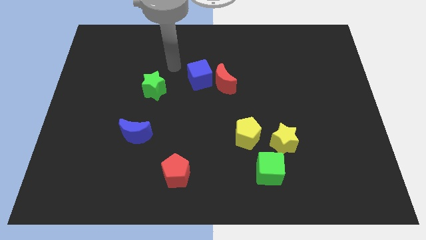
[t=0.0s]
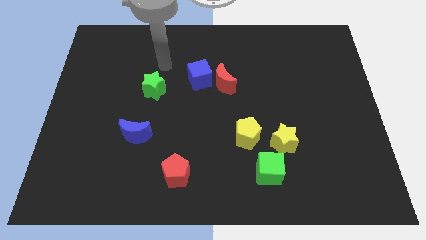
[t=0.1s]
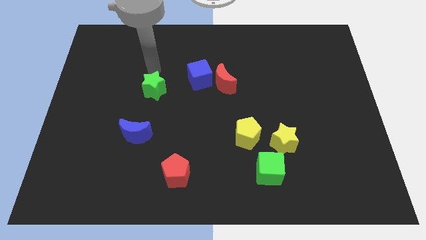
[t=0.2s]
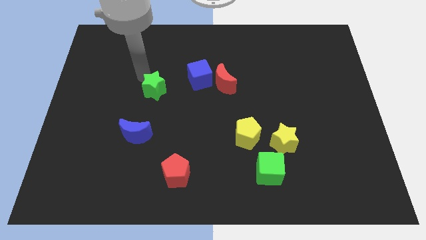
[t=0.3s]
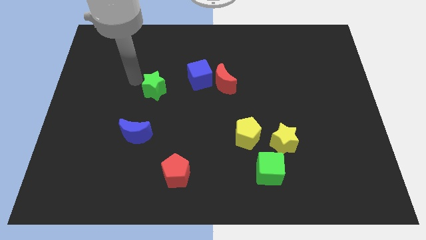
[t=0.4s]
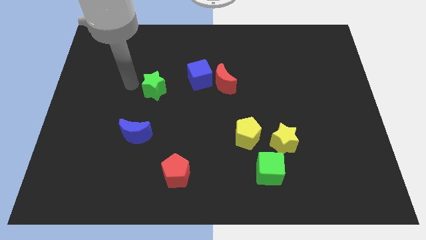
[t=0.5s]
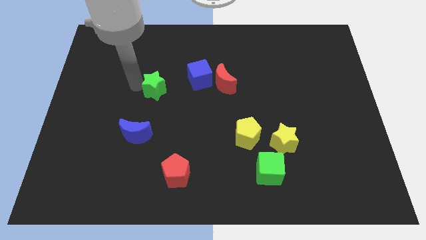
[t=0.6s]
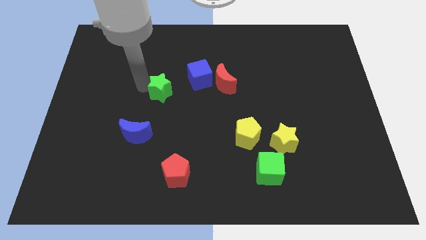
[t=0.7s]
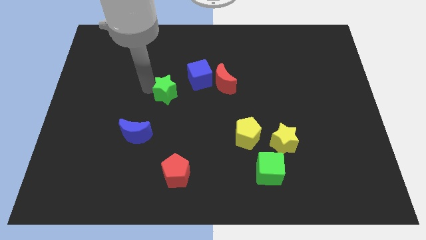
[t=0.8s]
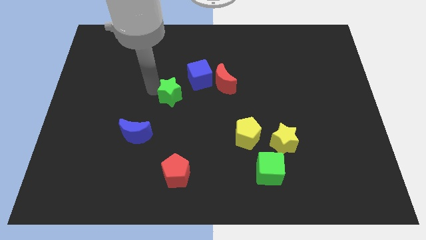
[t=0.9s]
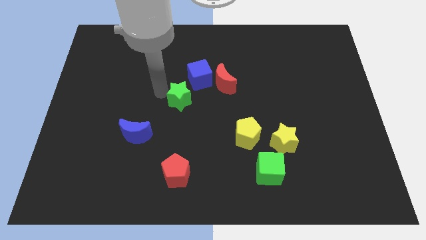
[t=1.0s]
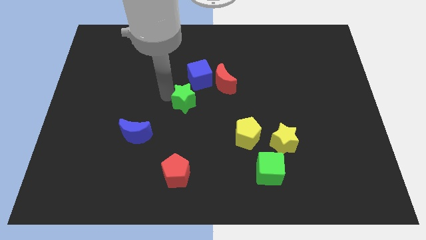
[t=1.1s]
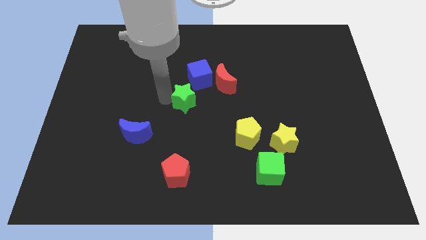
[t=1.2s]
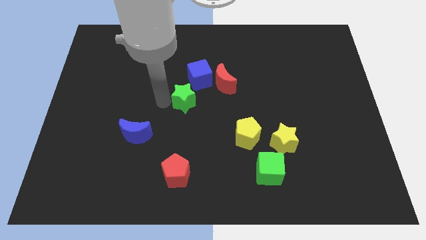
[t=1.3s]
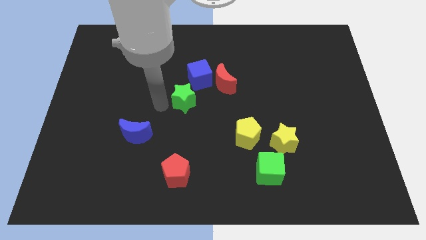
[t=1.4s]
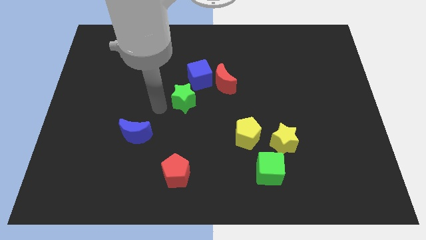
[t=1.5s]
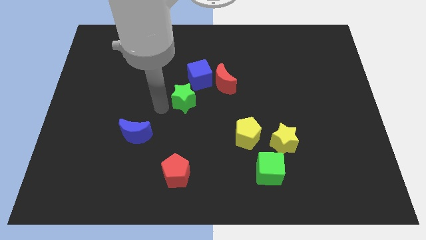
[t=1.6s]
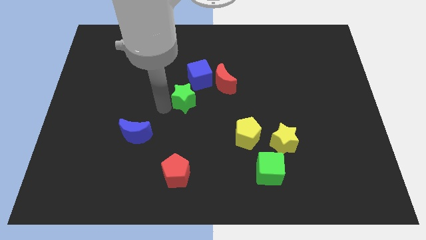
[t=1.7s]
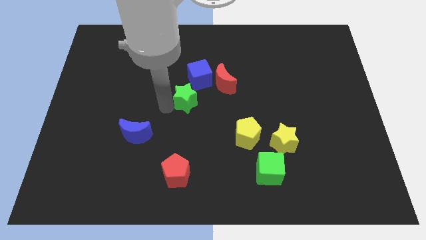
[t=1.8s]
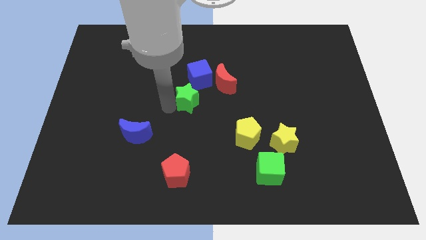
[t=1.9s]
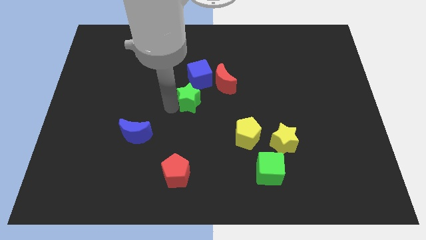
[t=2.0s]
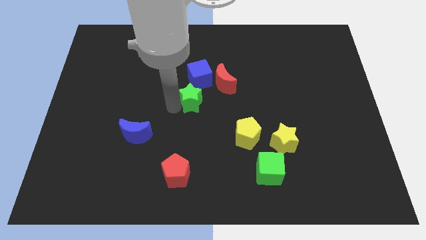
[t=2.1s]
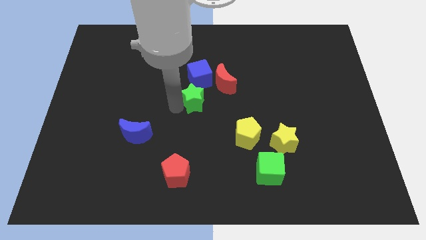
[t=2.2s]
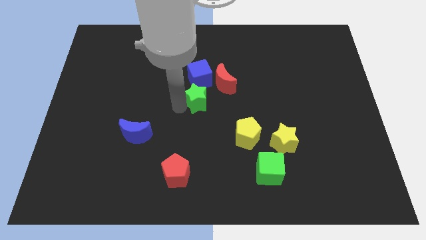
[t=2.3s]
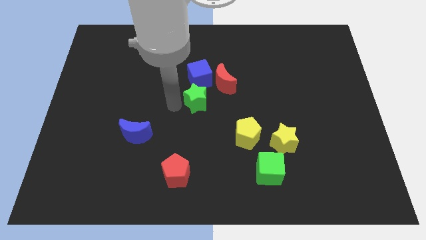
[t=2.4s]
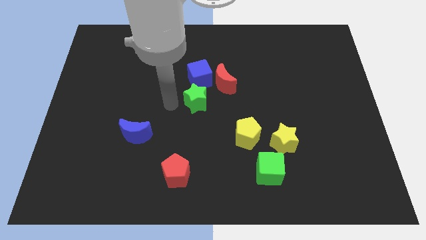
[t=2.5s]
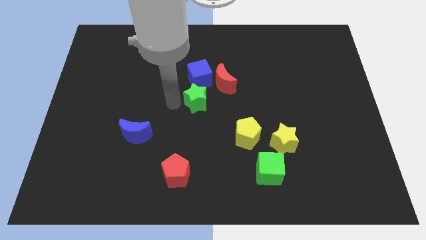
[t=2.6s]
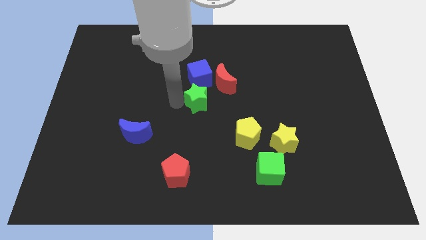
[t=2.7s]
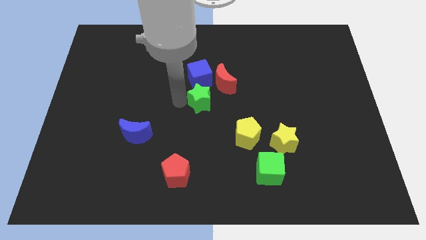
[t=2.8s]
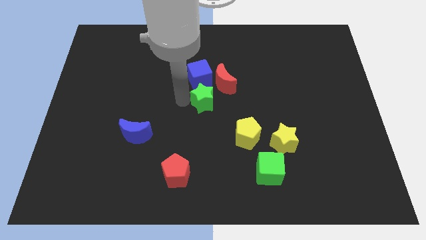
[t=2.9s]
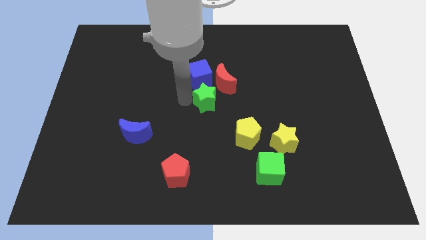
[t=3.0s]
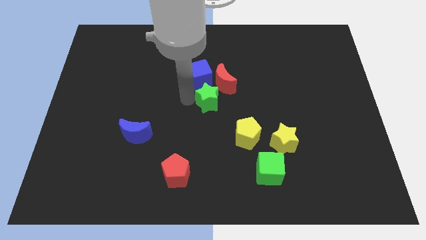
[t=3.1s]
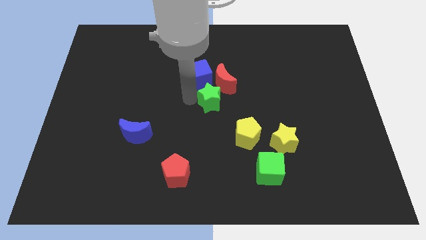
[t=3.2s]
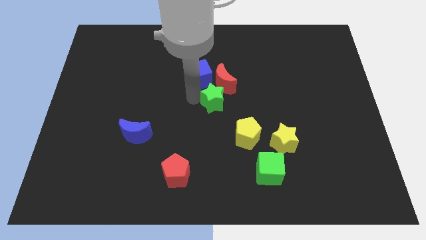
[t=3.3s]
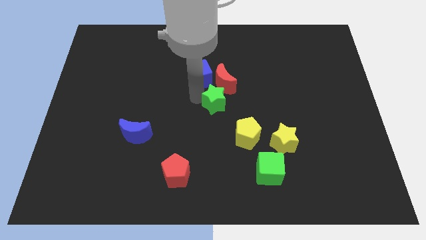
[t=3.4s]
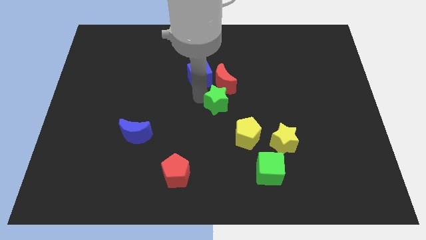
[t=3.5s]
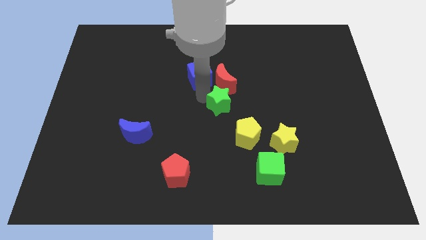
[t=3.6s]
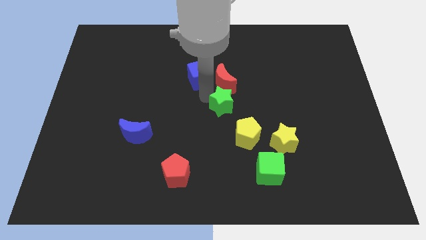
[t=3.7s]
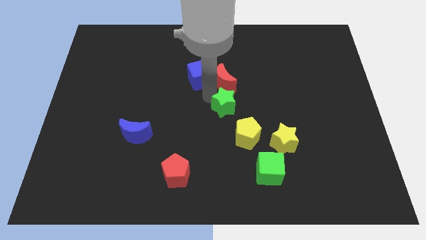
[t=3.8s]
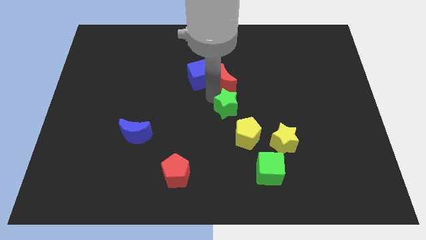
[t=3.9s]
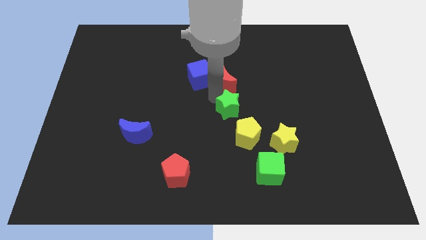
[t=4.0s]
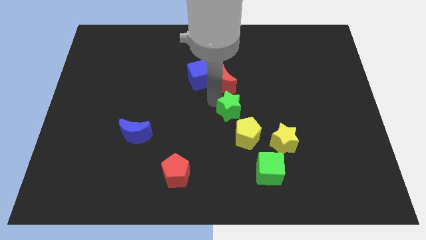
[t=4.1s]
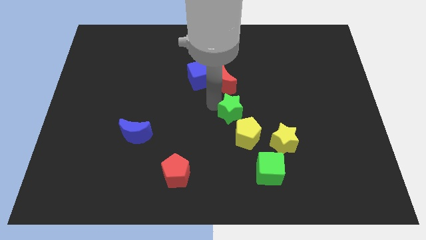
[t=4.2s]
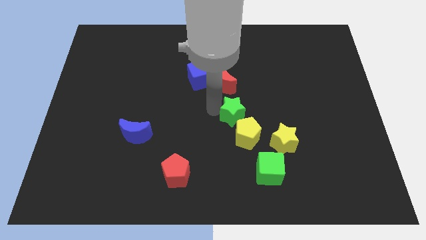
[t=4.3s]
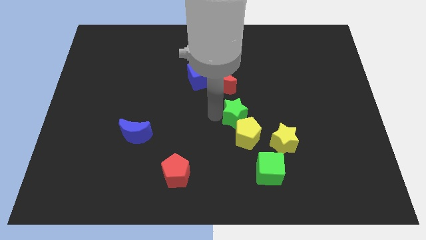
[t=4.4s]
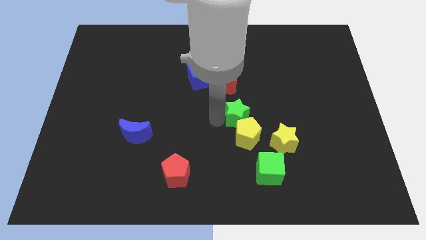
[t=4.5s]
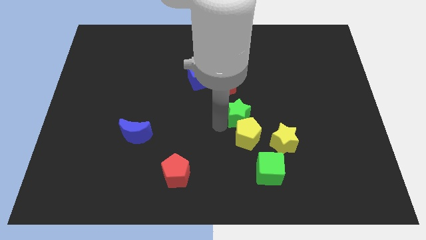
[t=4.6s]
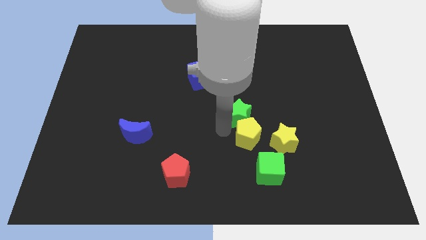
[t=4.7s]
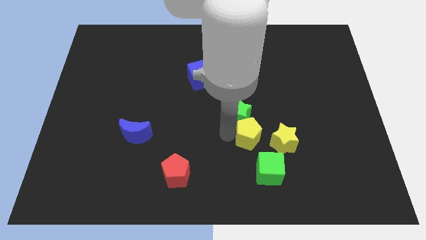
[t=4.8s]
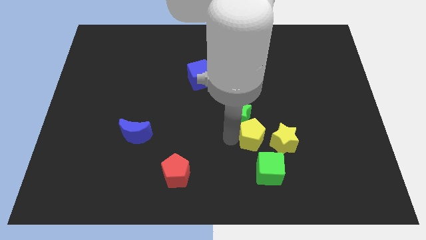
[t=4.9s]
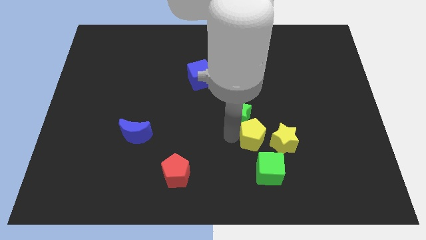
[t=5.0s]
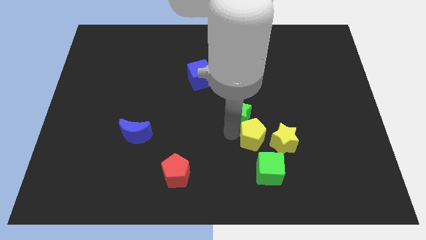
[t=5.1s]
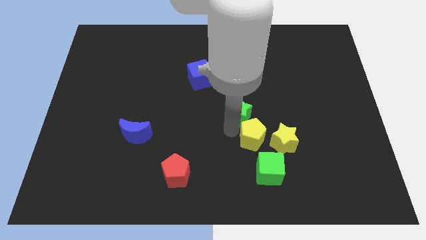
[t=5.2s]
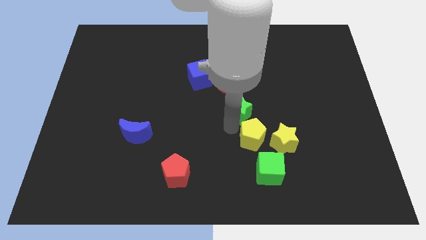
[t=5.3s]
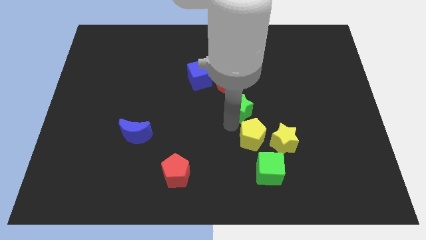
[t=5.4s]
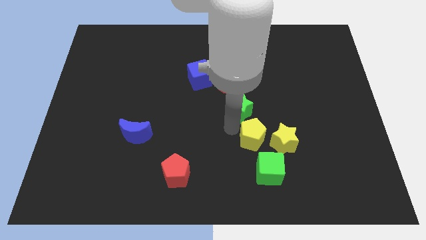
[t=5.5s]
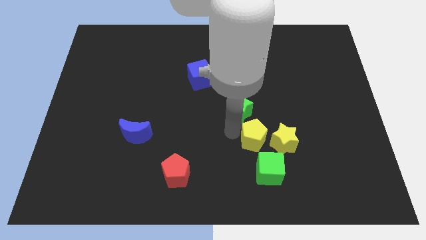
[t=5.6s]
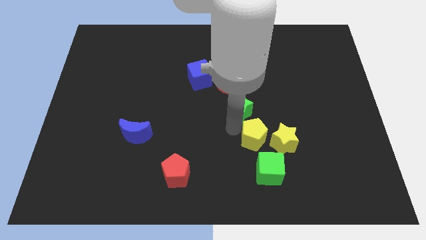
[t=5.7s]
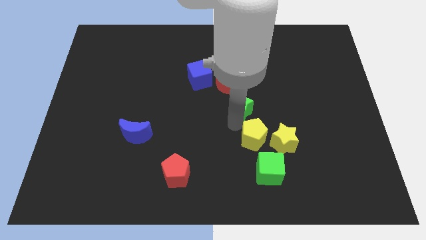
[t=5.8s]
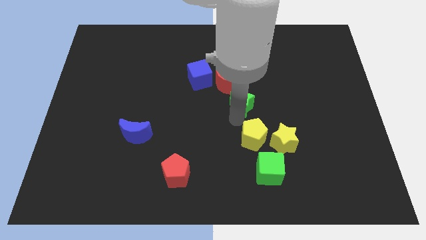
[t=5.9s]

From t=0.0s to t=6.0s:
slide the green star to the right

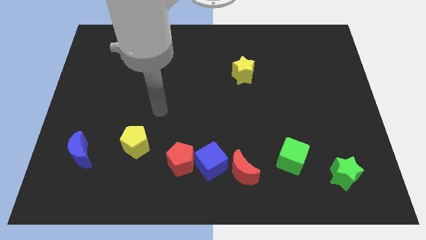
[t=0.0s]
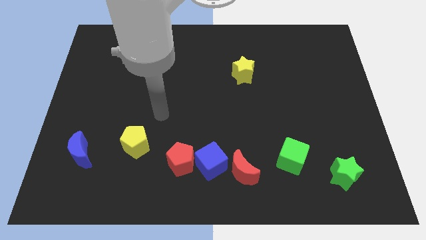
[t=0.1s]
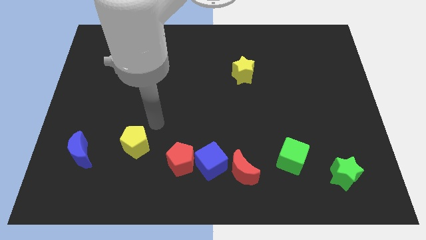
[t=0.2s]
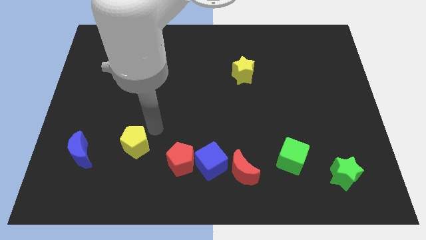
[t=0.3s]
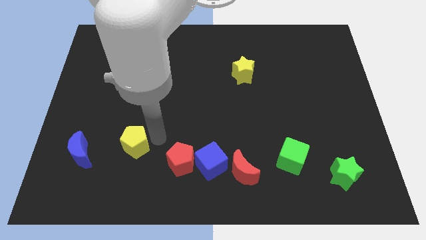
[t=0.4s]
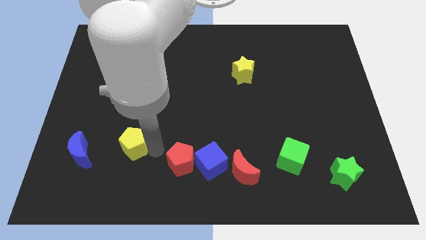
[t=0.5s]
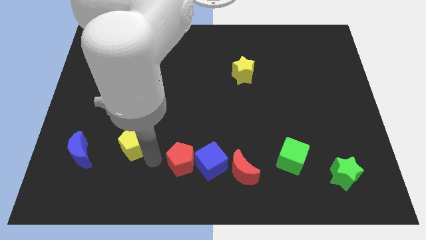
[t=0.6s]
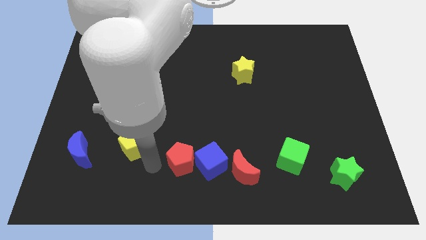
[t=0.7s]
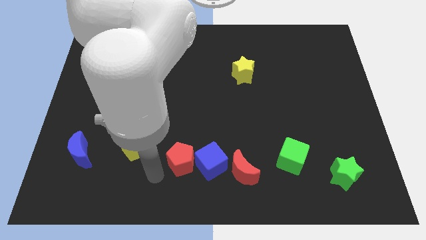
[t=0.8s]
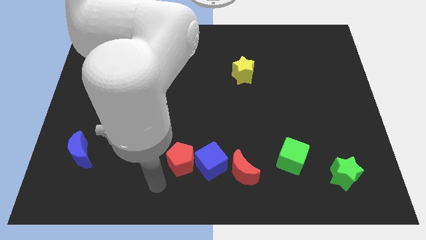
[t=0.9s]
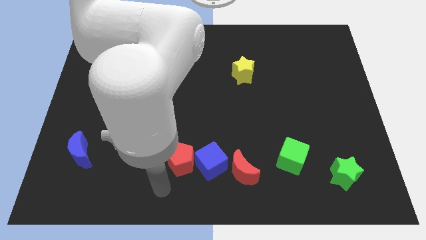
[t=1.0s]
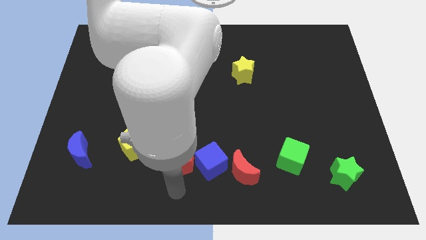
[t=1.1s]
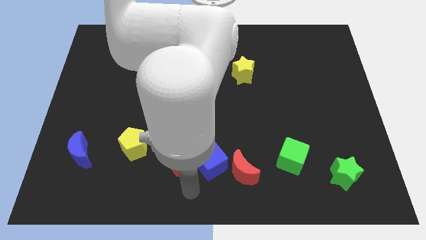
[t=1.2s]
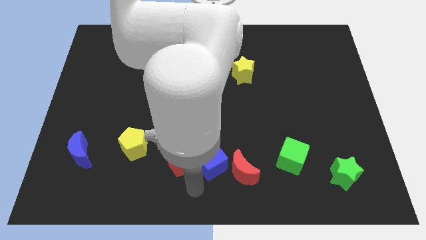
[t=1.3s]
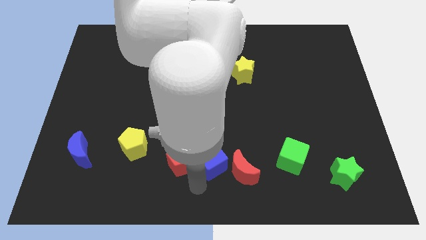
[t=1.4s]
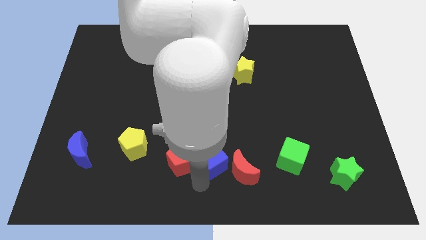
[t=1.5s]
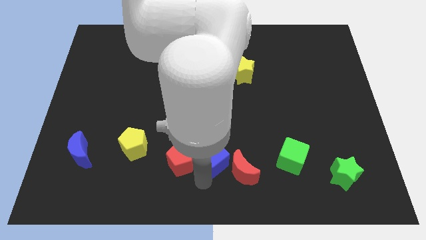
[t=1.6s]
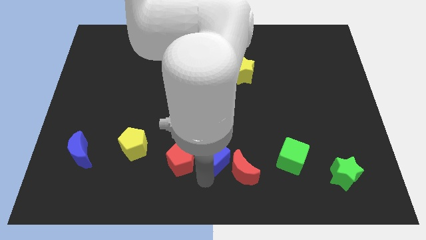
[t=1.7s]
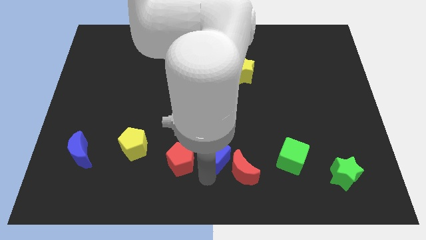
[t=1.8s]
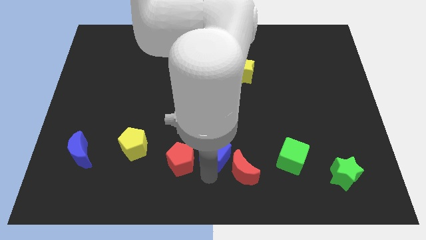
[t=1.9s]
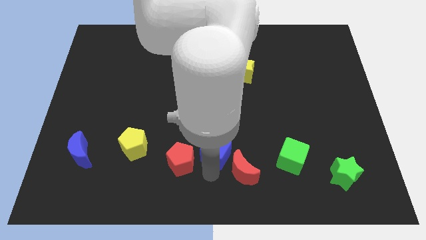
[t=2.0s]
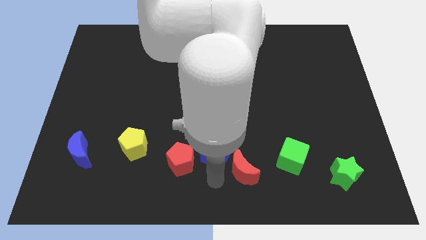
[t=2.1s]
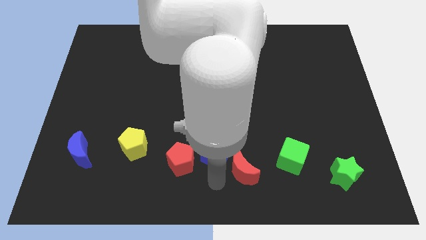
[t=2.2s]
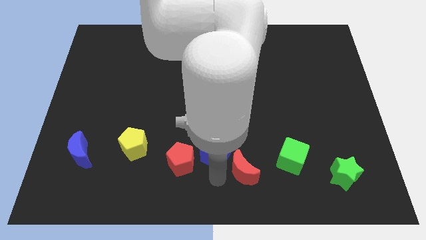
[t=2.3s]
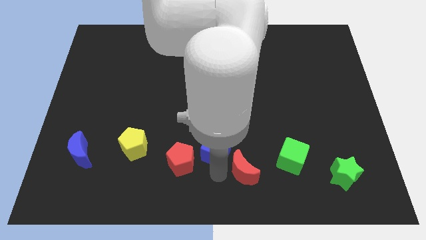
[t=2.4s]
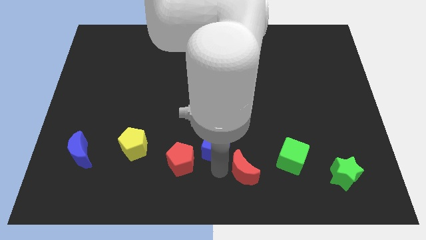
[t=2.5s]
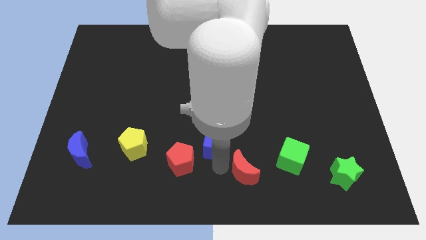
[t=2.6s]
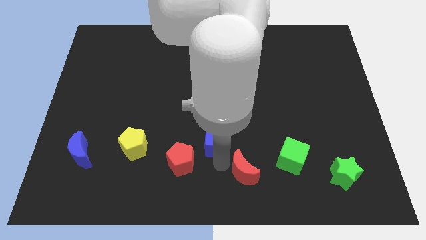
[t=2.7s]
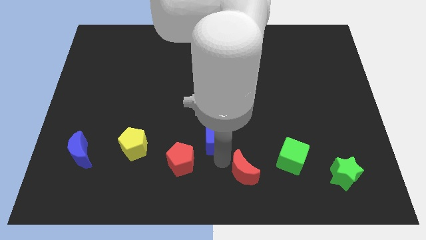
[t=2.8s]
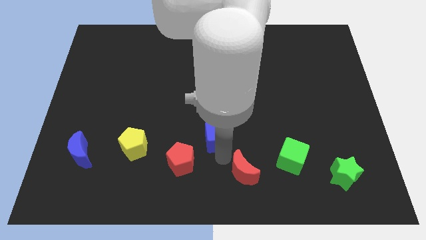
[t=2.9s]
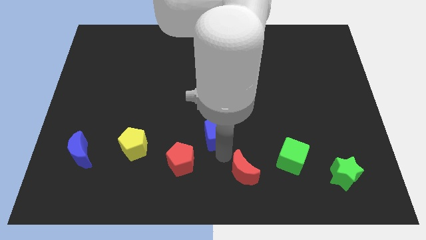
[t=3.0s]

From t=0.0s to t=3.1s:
move the blue cube a bit up
